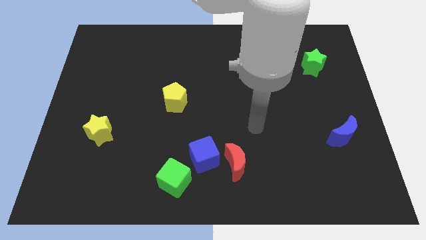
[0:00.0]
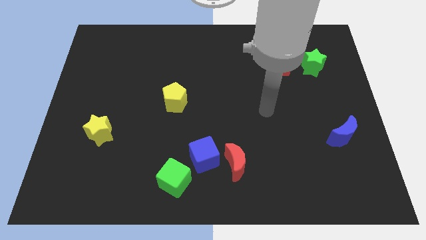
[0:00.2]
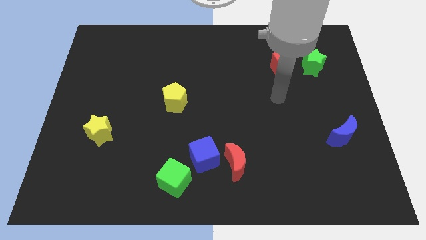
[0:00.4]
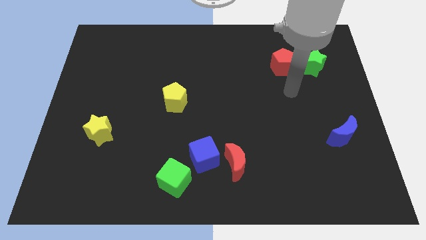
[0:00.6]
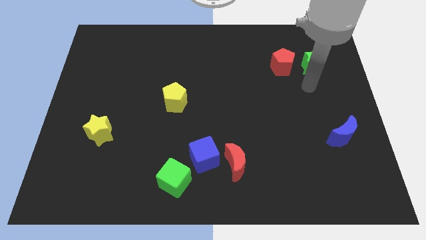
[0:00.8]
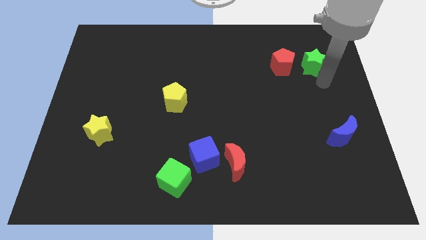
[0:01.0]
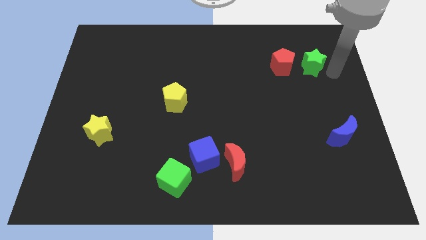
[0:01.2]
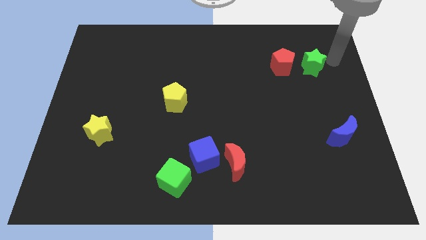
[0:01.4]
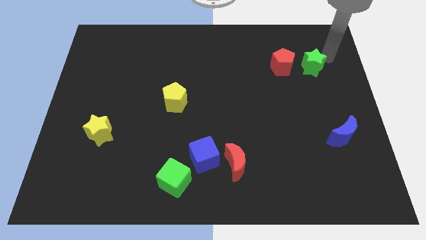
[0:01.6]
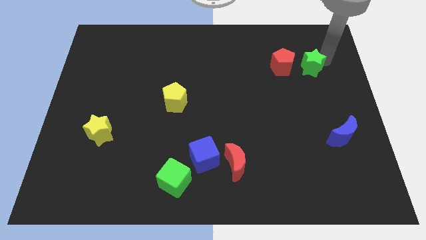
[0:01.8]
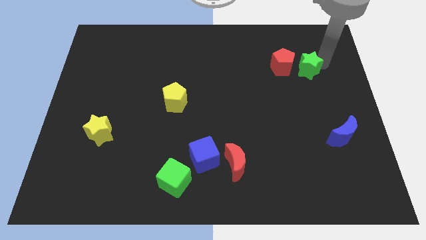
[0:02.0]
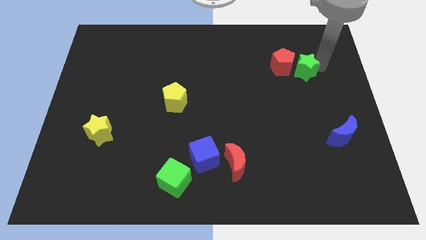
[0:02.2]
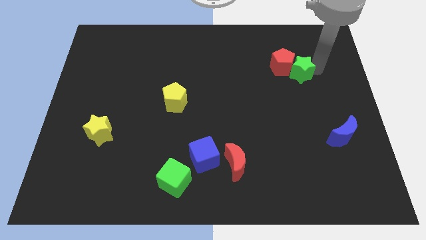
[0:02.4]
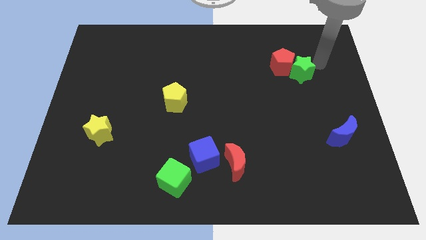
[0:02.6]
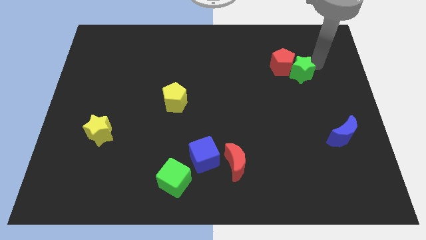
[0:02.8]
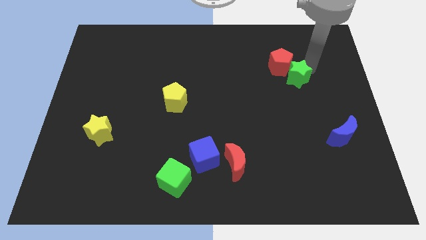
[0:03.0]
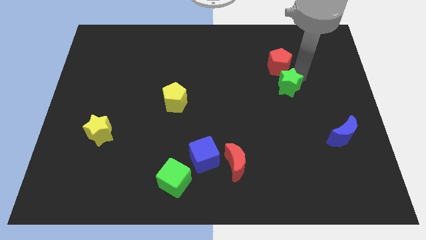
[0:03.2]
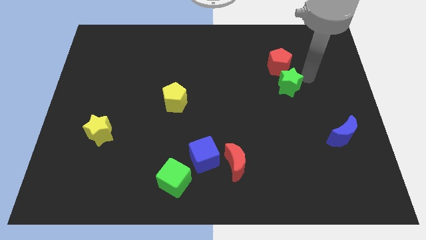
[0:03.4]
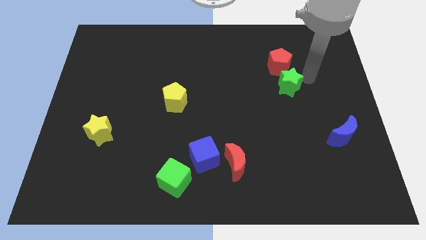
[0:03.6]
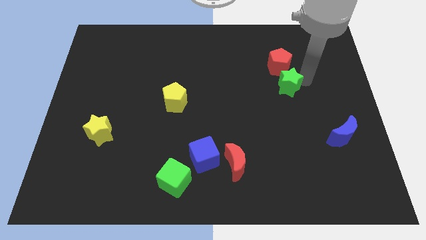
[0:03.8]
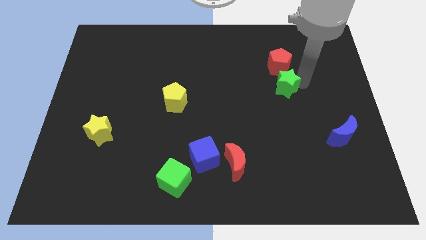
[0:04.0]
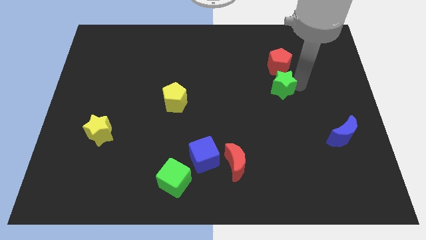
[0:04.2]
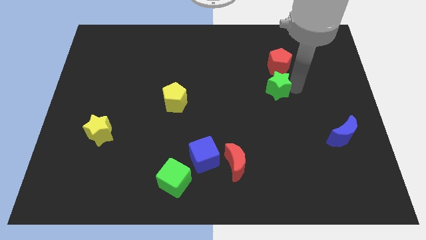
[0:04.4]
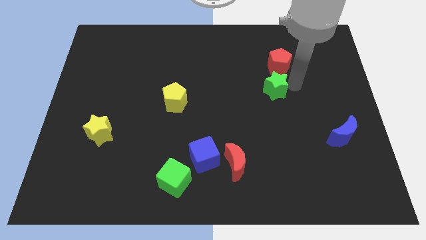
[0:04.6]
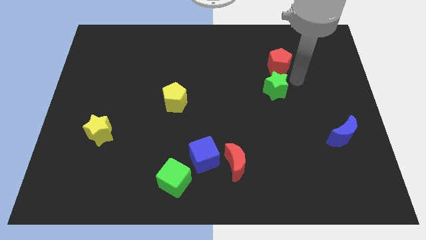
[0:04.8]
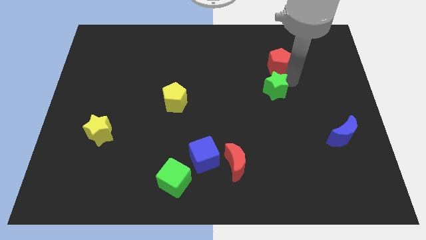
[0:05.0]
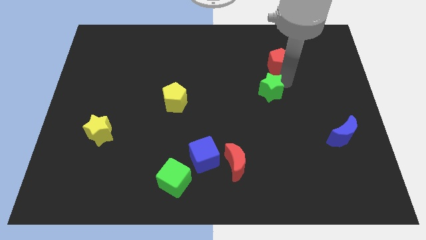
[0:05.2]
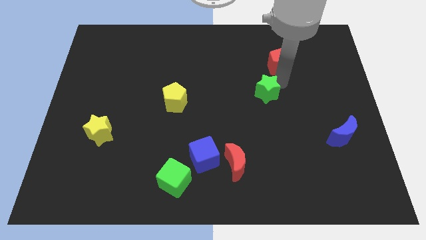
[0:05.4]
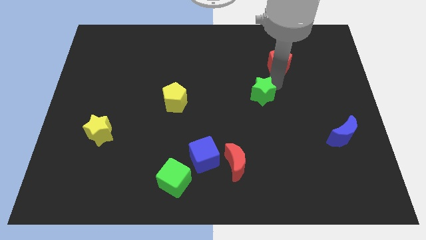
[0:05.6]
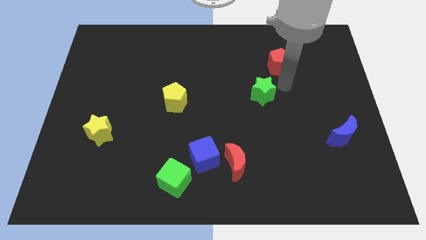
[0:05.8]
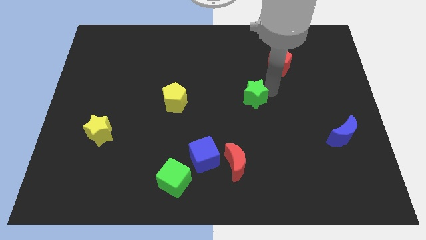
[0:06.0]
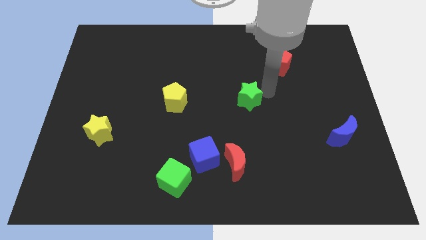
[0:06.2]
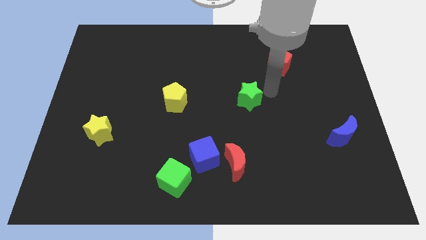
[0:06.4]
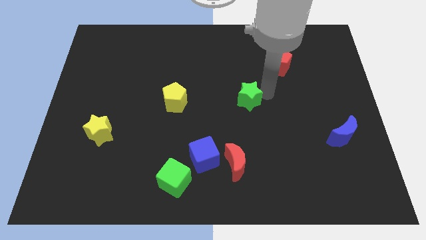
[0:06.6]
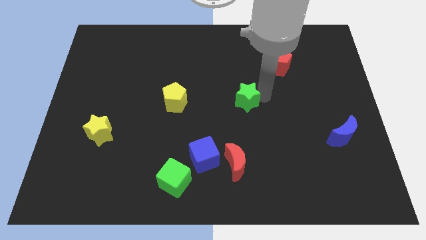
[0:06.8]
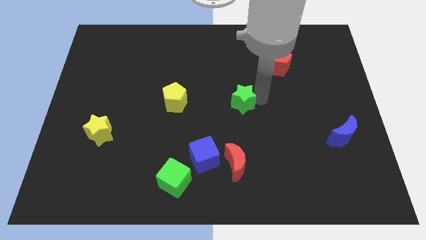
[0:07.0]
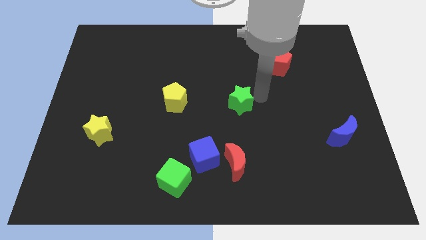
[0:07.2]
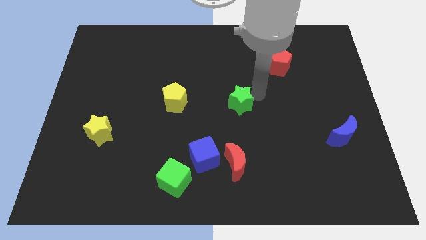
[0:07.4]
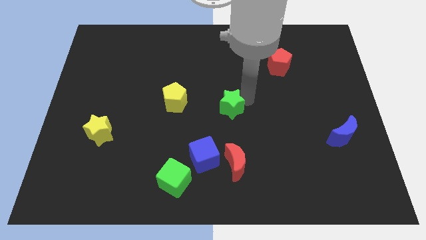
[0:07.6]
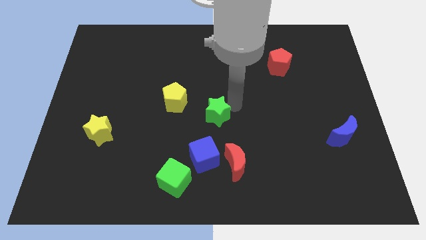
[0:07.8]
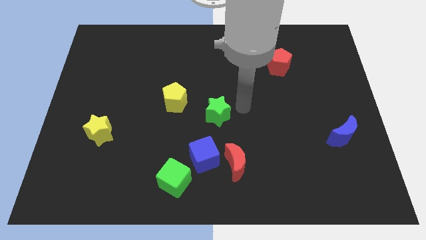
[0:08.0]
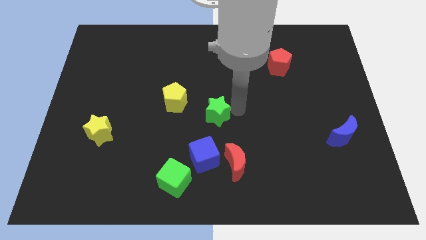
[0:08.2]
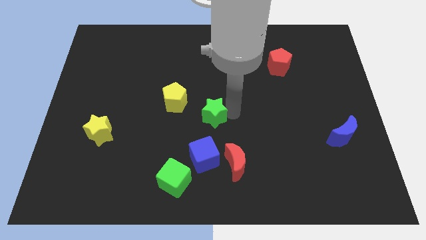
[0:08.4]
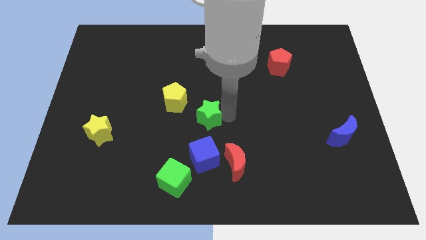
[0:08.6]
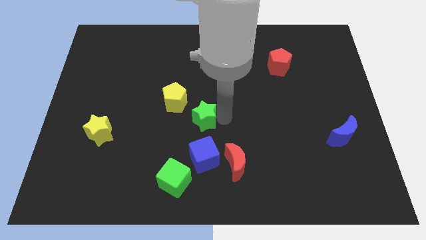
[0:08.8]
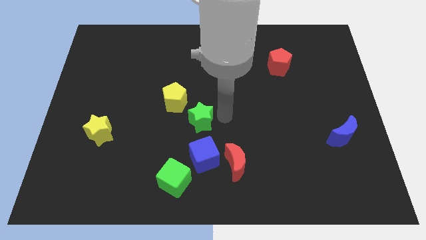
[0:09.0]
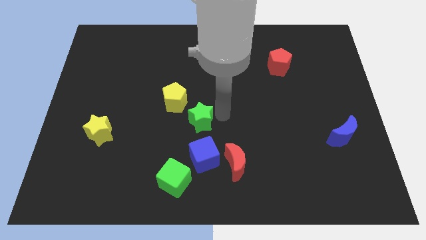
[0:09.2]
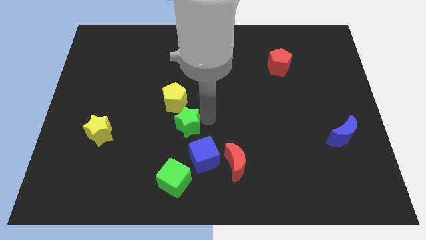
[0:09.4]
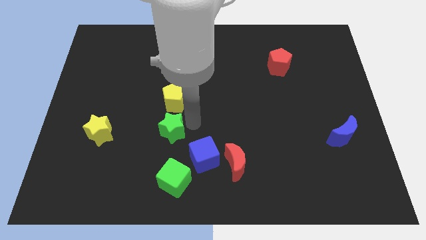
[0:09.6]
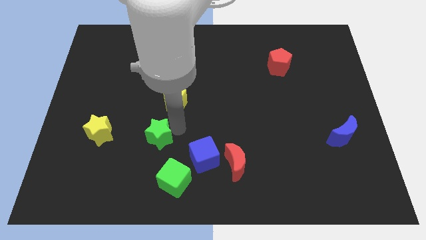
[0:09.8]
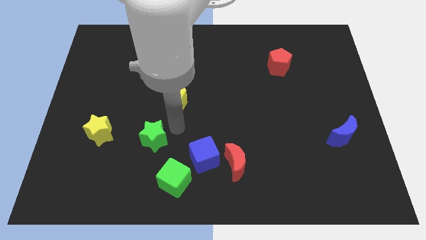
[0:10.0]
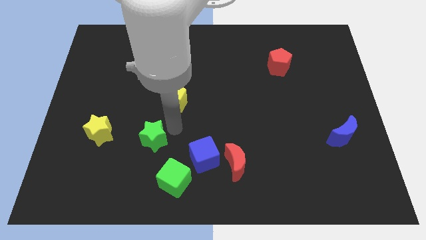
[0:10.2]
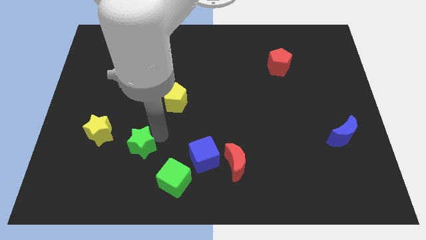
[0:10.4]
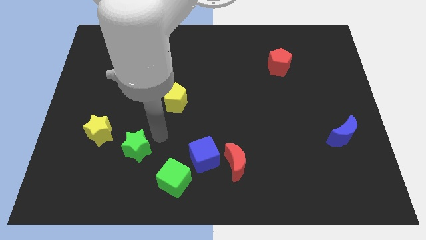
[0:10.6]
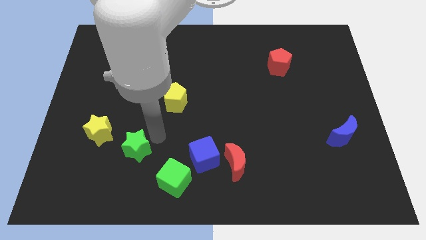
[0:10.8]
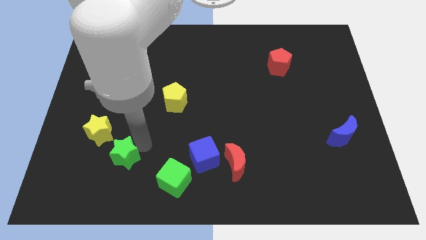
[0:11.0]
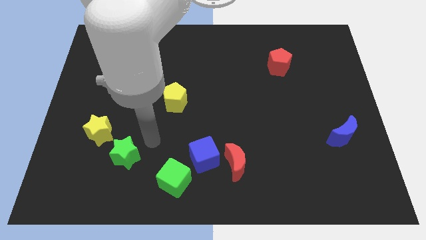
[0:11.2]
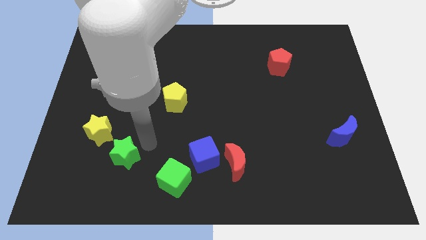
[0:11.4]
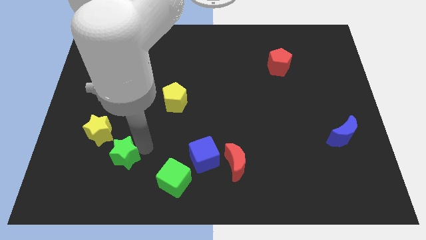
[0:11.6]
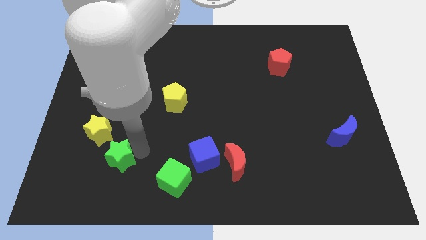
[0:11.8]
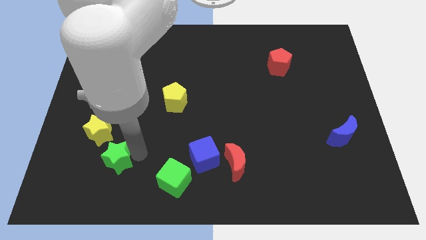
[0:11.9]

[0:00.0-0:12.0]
move the green star to the bottom side of the yellow star

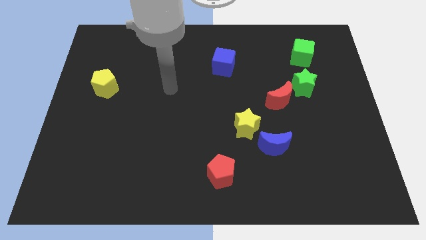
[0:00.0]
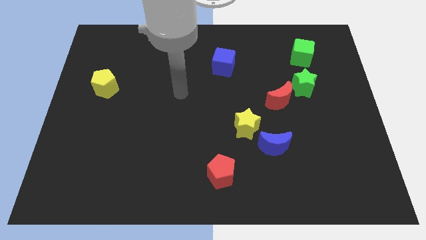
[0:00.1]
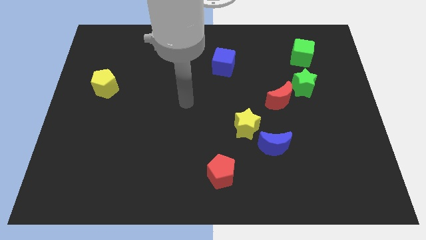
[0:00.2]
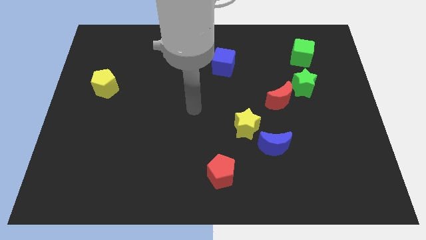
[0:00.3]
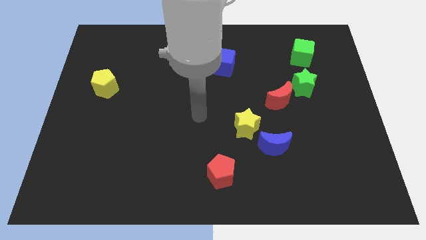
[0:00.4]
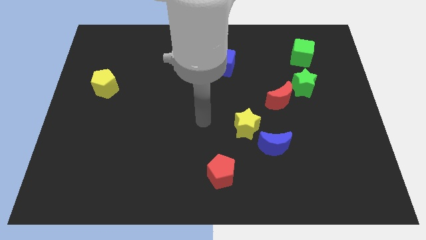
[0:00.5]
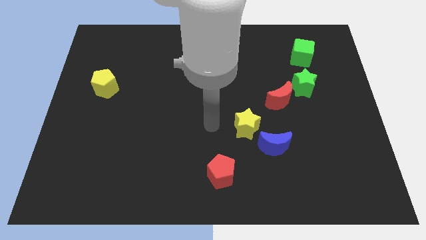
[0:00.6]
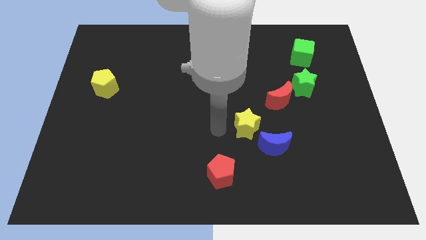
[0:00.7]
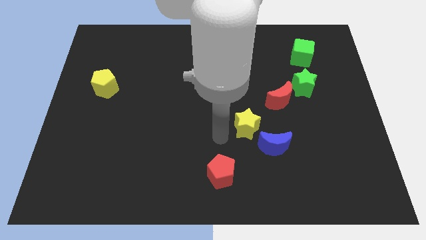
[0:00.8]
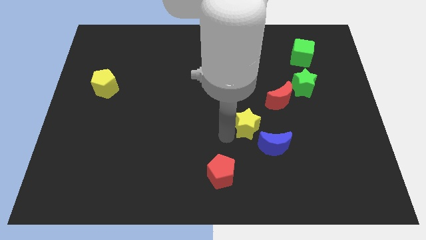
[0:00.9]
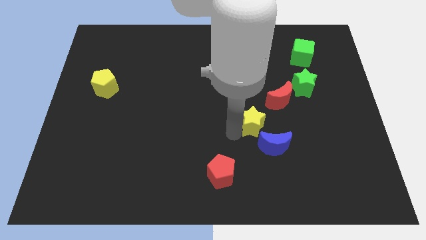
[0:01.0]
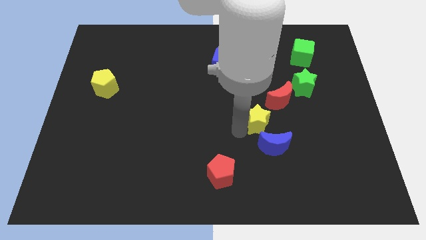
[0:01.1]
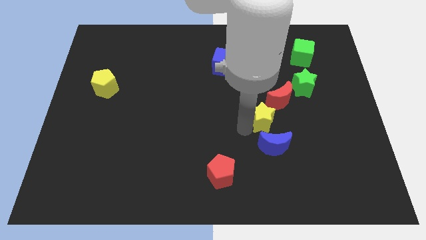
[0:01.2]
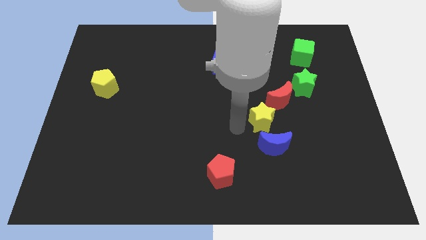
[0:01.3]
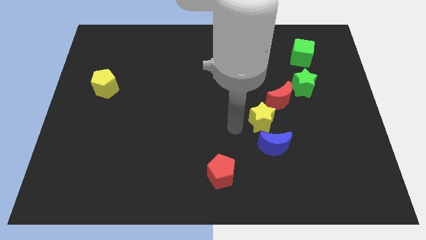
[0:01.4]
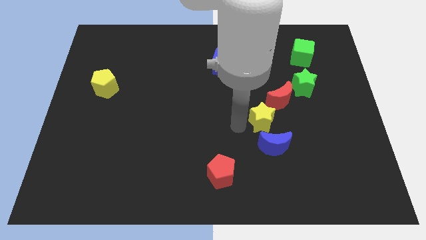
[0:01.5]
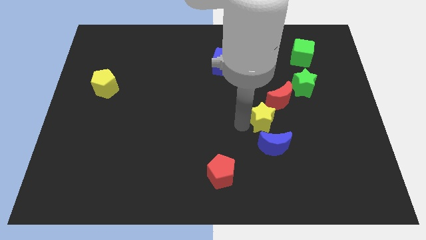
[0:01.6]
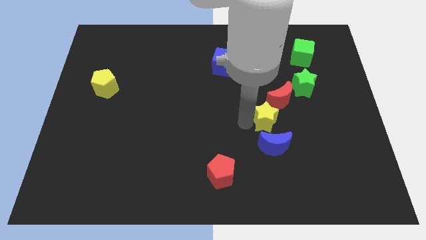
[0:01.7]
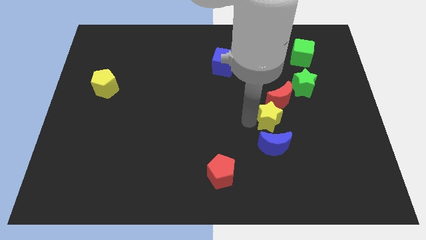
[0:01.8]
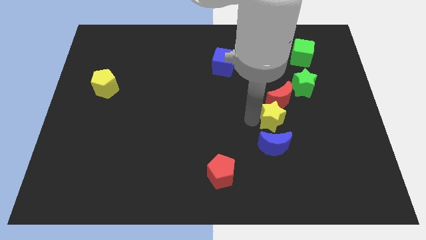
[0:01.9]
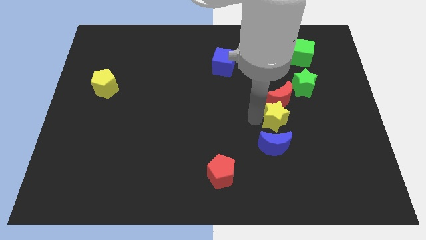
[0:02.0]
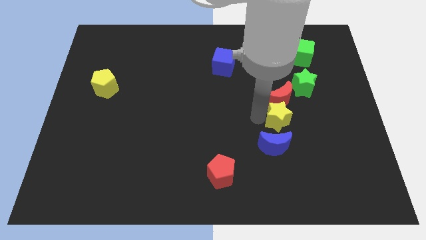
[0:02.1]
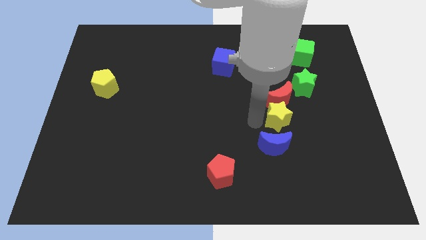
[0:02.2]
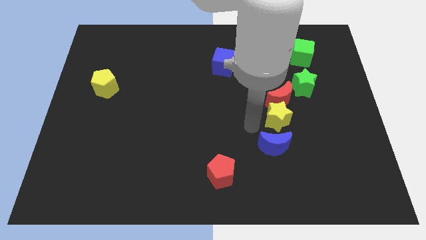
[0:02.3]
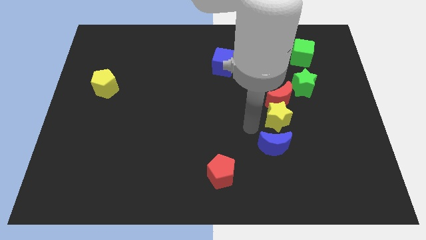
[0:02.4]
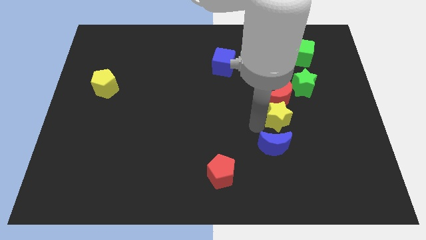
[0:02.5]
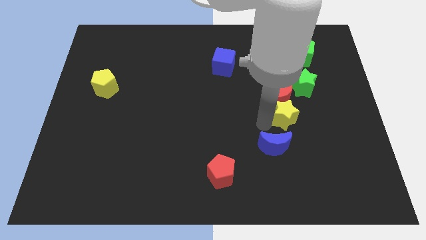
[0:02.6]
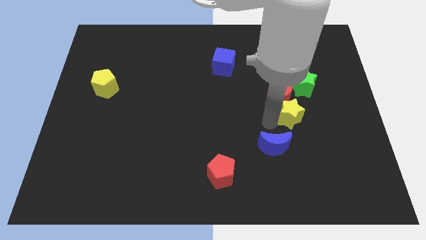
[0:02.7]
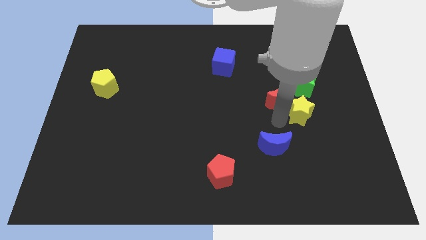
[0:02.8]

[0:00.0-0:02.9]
slide the yellow star to the right side of the red moon
